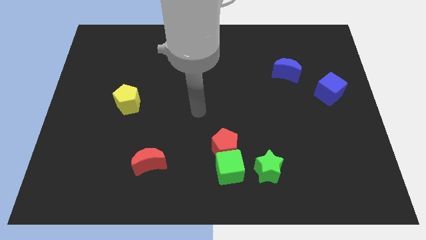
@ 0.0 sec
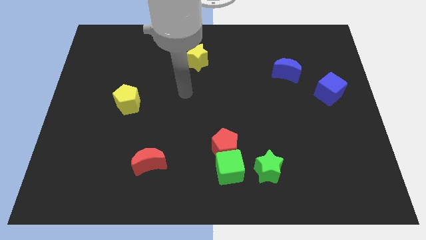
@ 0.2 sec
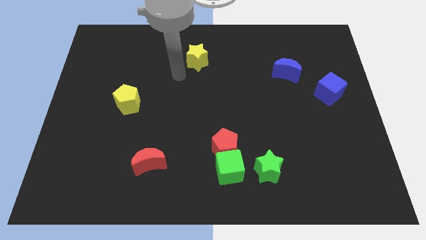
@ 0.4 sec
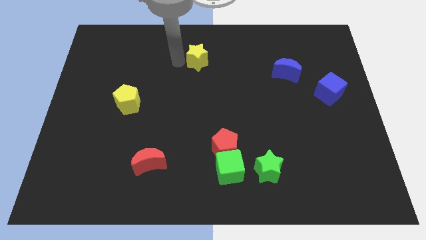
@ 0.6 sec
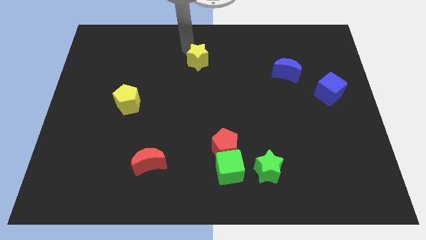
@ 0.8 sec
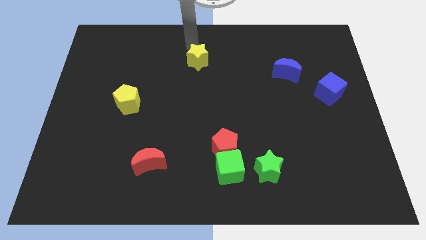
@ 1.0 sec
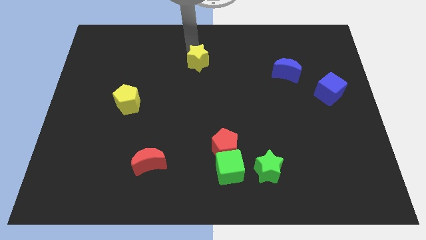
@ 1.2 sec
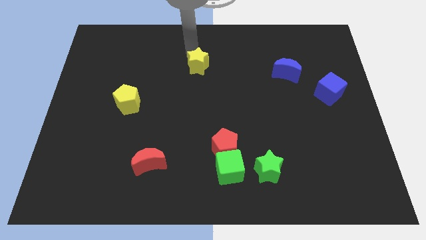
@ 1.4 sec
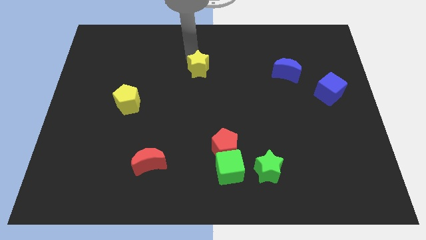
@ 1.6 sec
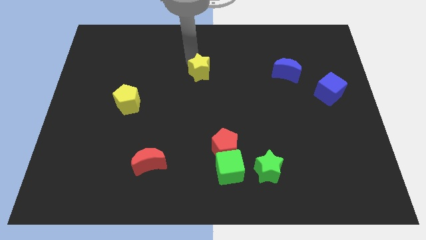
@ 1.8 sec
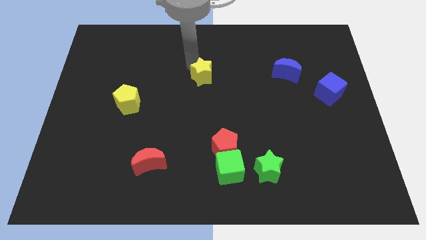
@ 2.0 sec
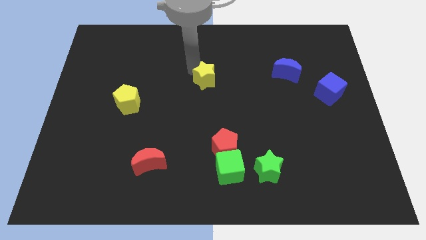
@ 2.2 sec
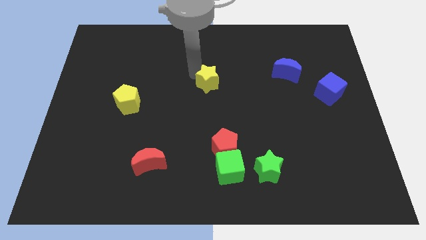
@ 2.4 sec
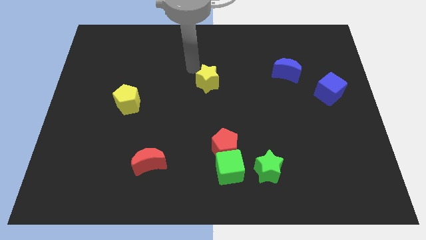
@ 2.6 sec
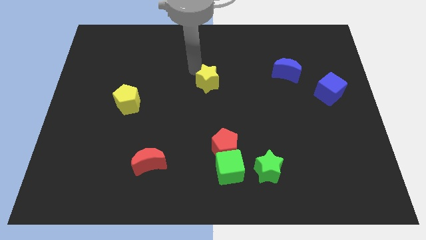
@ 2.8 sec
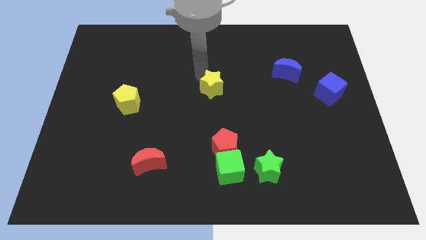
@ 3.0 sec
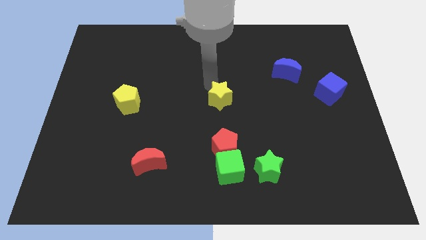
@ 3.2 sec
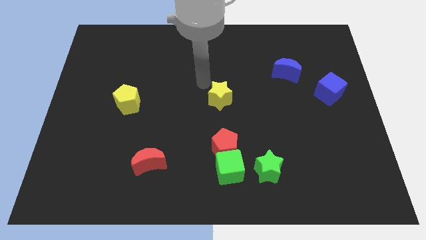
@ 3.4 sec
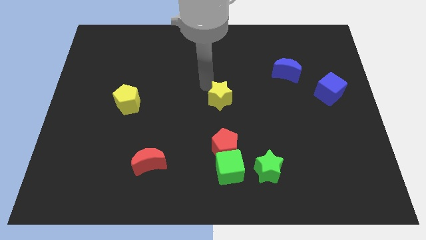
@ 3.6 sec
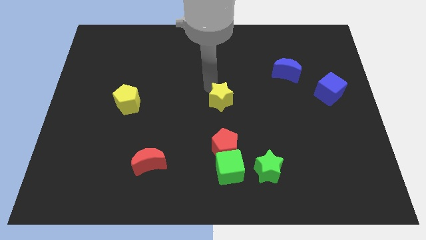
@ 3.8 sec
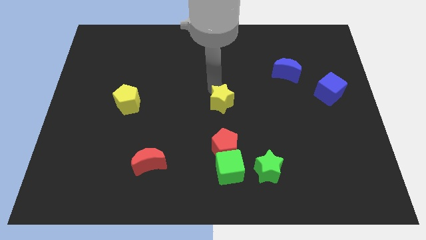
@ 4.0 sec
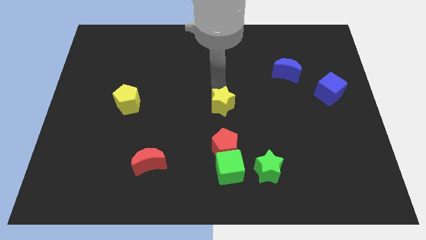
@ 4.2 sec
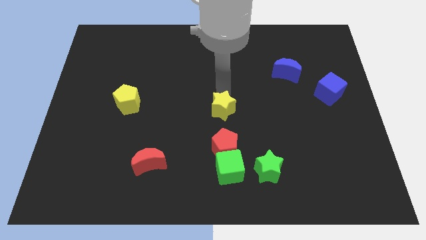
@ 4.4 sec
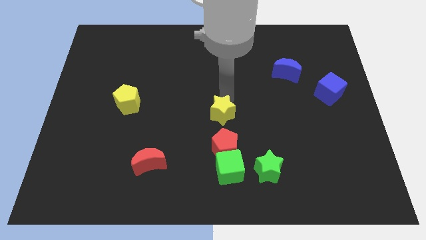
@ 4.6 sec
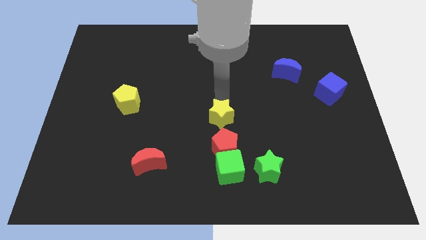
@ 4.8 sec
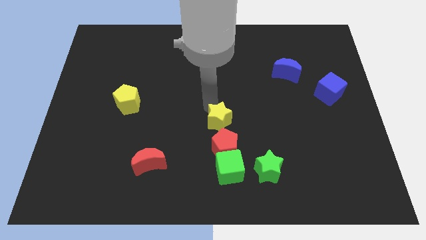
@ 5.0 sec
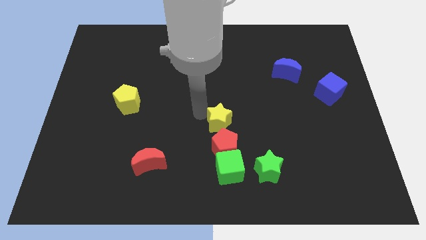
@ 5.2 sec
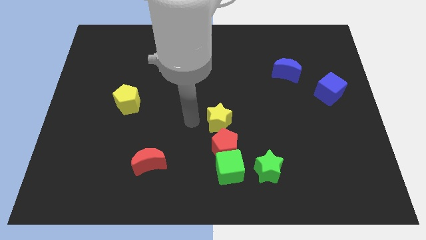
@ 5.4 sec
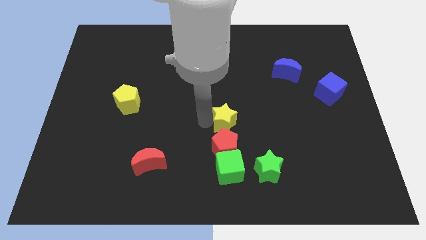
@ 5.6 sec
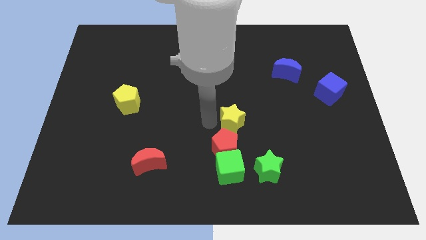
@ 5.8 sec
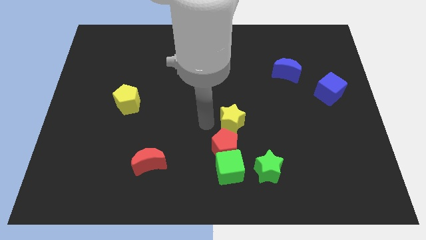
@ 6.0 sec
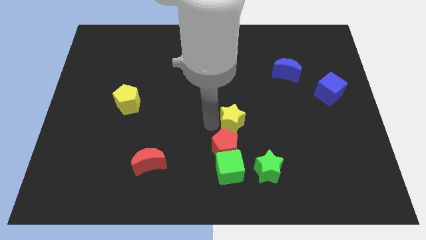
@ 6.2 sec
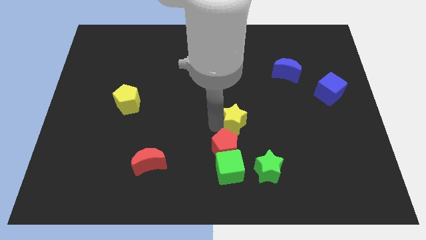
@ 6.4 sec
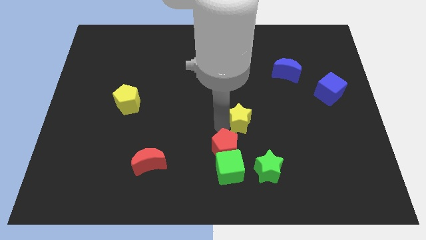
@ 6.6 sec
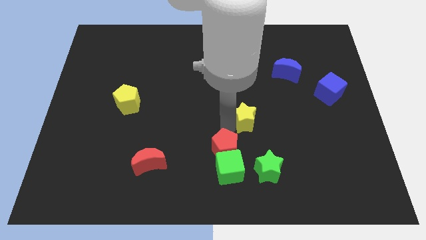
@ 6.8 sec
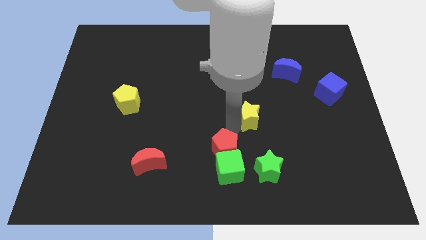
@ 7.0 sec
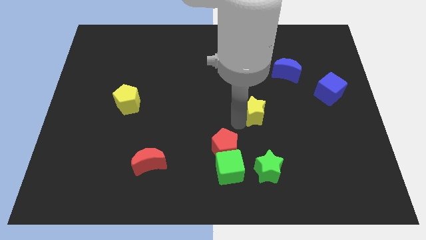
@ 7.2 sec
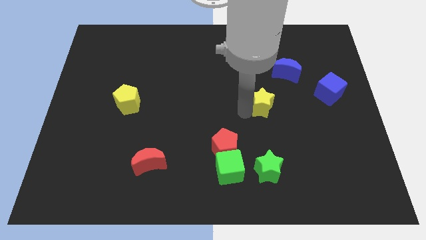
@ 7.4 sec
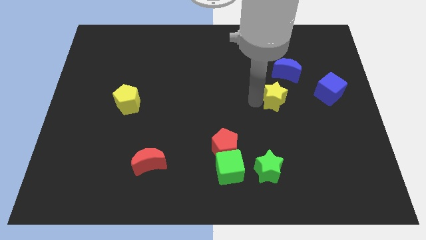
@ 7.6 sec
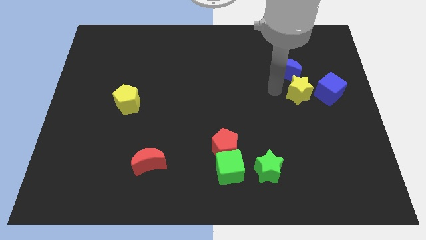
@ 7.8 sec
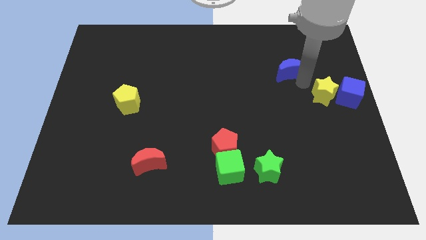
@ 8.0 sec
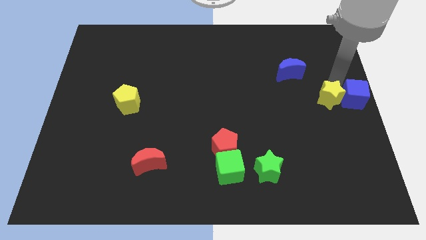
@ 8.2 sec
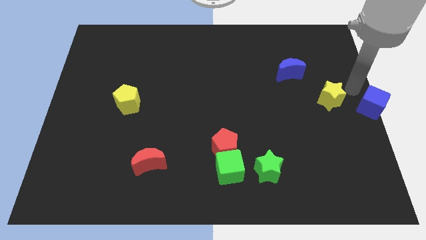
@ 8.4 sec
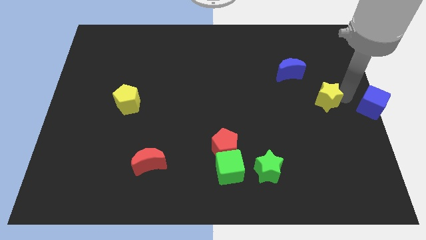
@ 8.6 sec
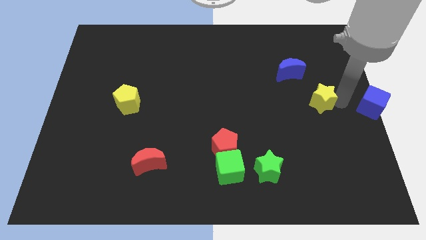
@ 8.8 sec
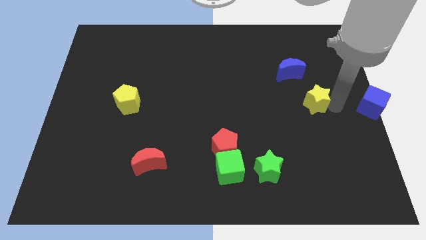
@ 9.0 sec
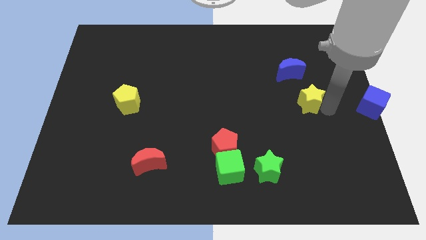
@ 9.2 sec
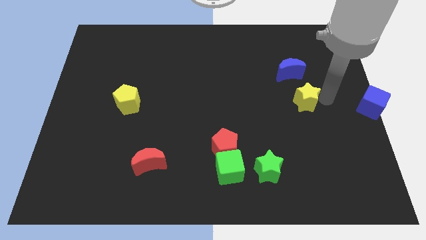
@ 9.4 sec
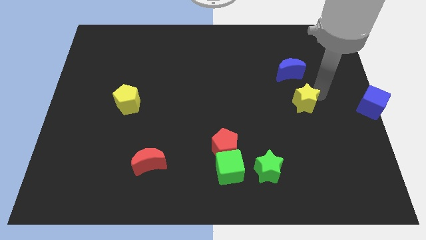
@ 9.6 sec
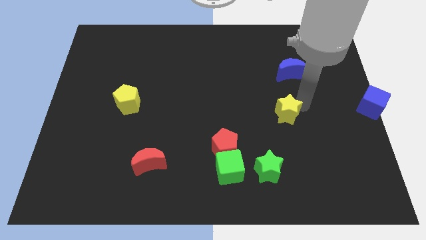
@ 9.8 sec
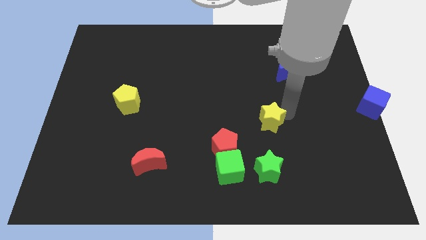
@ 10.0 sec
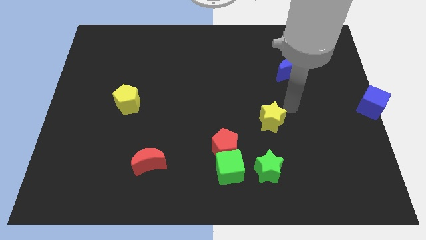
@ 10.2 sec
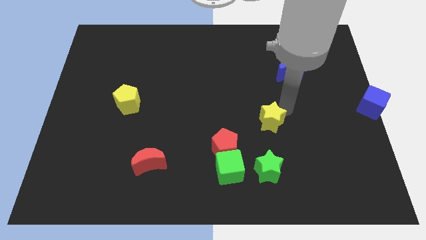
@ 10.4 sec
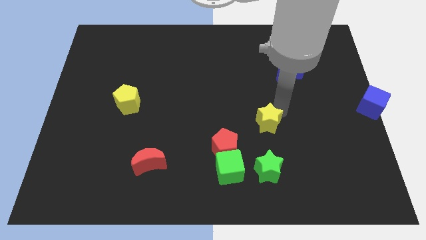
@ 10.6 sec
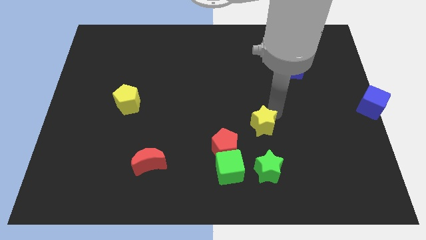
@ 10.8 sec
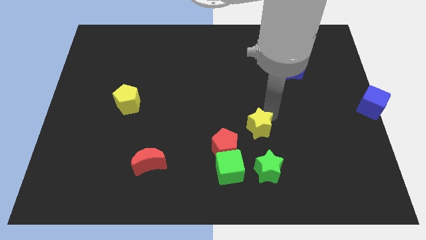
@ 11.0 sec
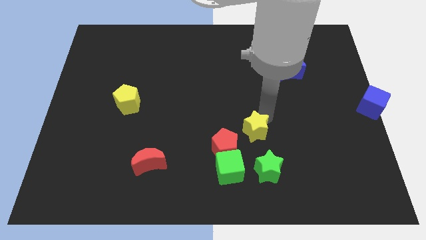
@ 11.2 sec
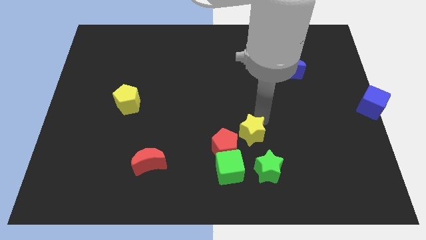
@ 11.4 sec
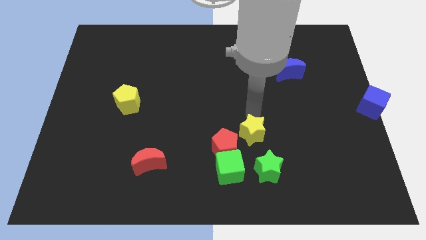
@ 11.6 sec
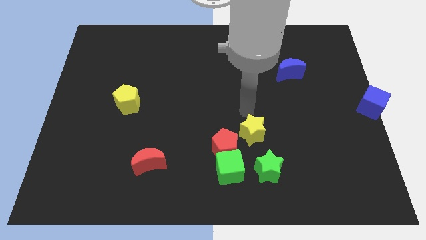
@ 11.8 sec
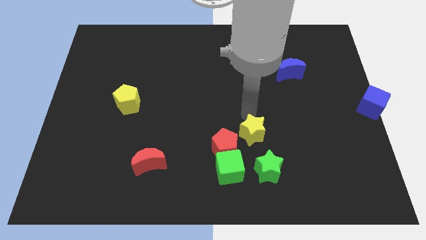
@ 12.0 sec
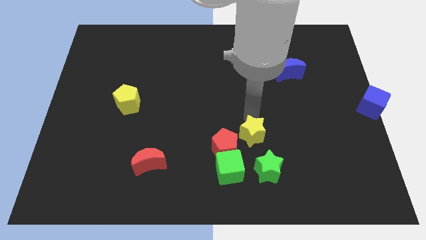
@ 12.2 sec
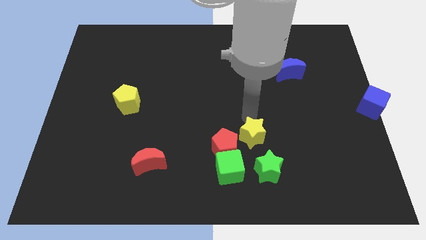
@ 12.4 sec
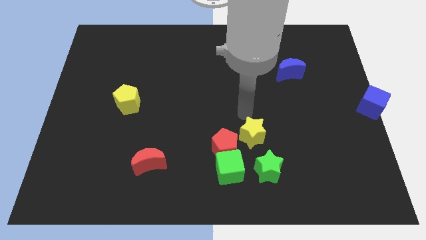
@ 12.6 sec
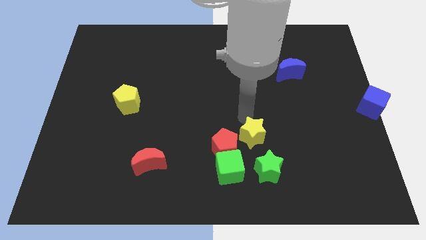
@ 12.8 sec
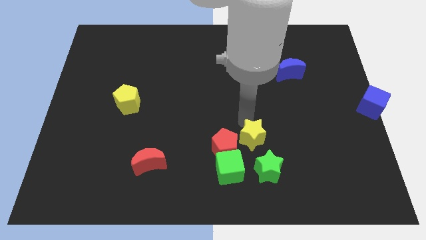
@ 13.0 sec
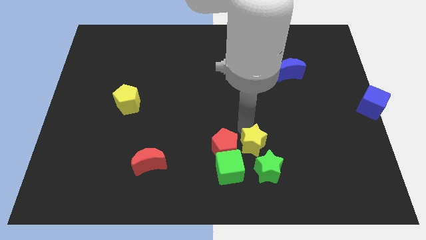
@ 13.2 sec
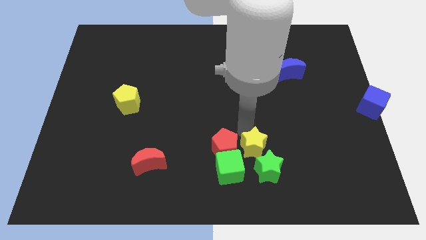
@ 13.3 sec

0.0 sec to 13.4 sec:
put the yellow star towards the green star
